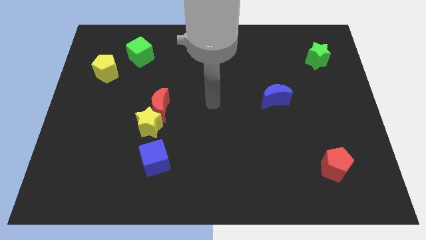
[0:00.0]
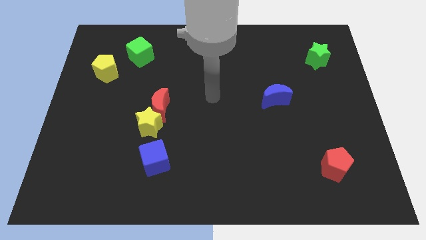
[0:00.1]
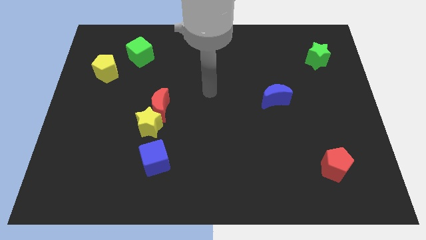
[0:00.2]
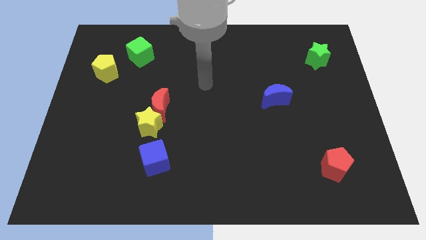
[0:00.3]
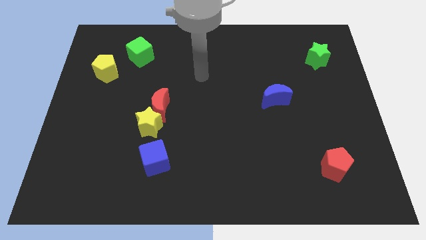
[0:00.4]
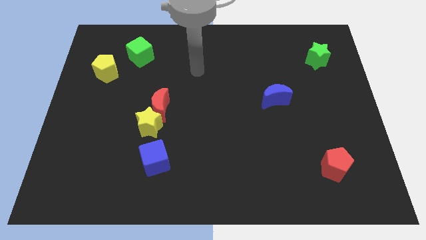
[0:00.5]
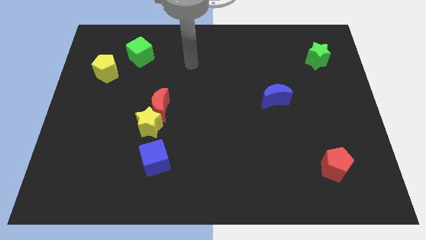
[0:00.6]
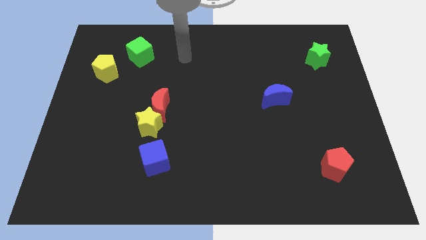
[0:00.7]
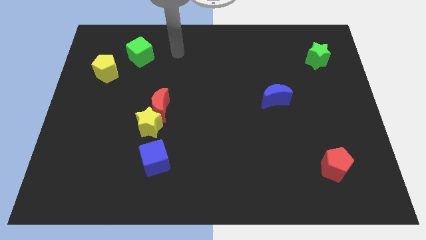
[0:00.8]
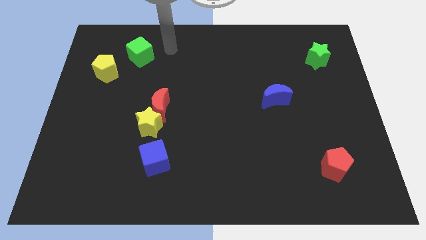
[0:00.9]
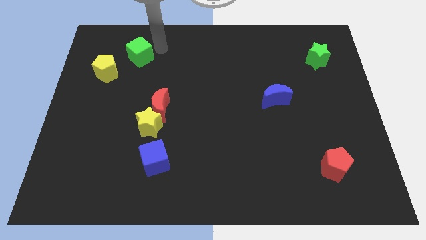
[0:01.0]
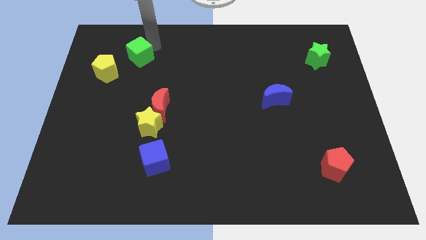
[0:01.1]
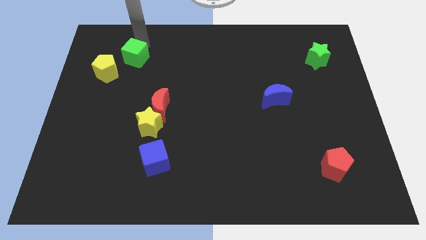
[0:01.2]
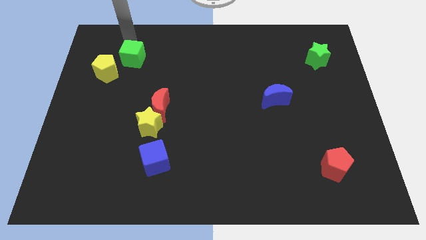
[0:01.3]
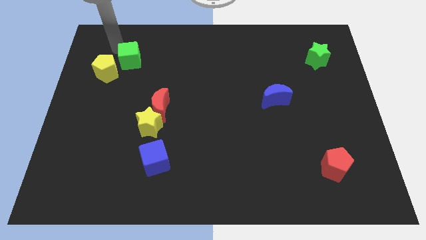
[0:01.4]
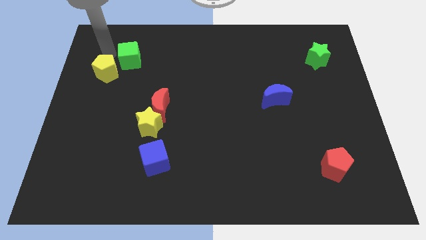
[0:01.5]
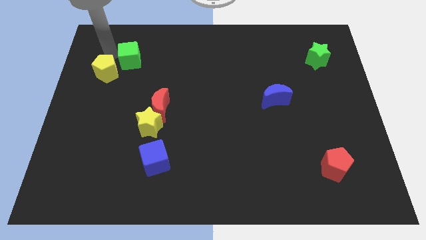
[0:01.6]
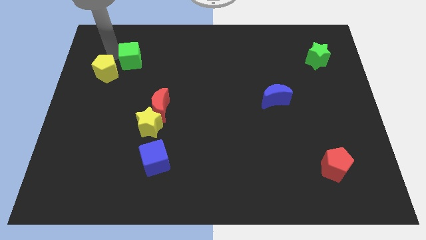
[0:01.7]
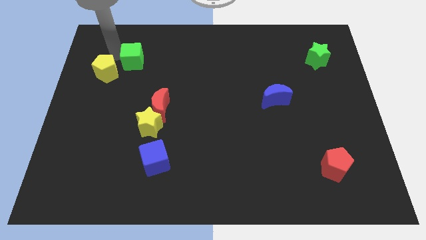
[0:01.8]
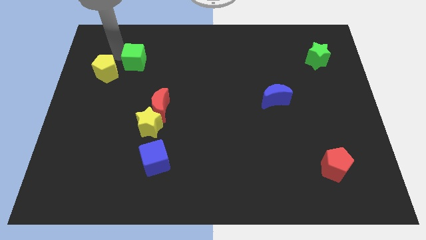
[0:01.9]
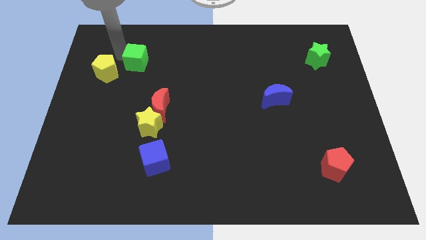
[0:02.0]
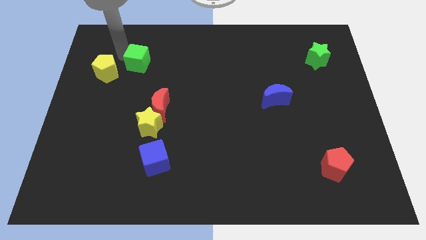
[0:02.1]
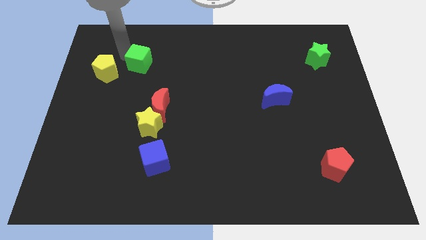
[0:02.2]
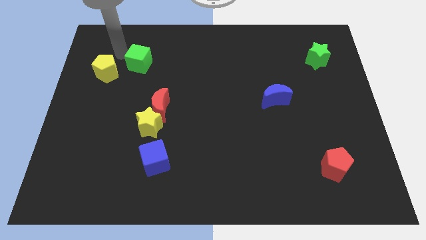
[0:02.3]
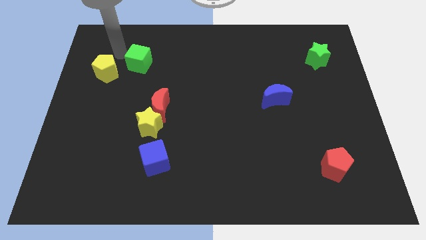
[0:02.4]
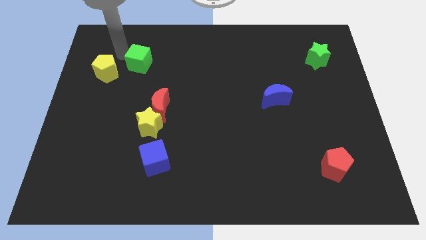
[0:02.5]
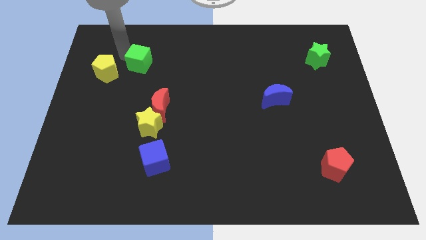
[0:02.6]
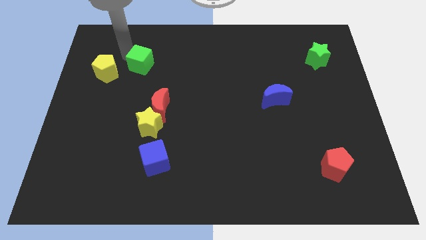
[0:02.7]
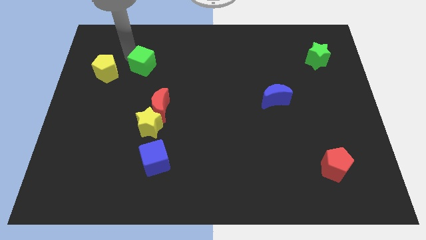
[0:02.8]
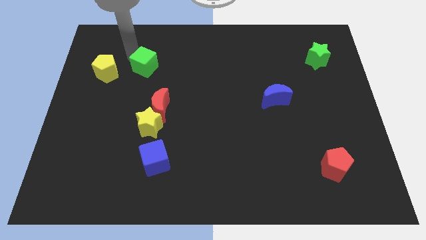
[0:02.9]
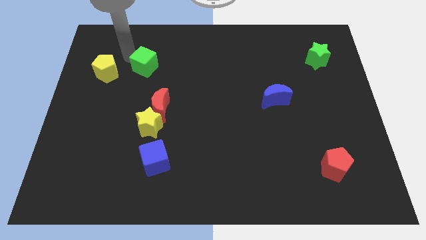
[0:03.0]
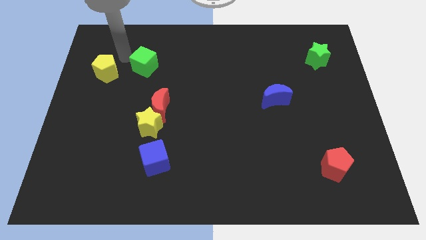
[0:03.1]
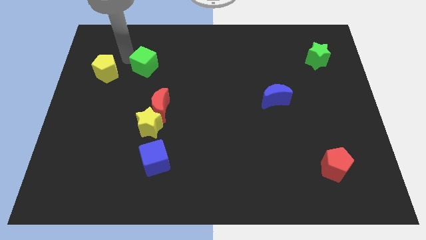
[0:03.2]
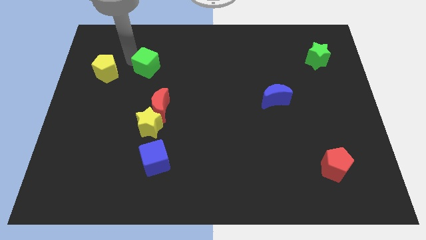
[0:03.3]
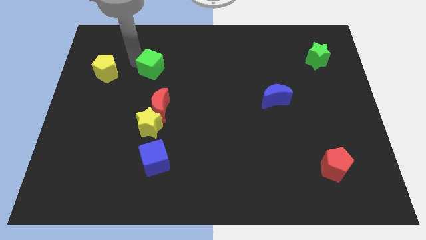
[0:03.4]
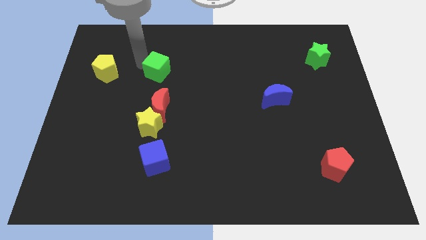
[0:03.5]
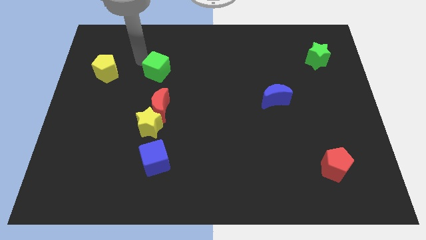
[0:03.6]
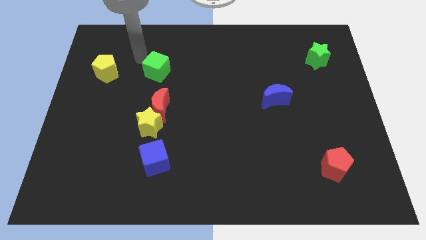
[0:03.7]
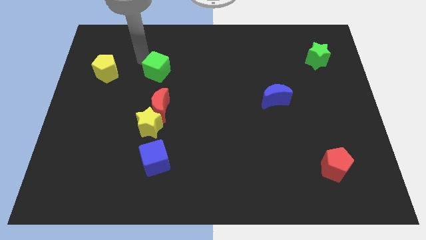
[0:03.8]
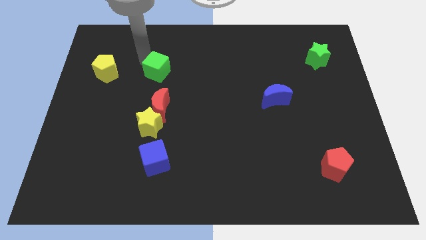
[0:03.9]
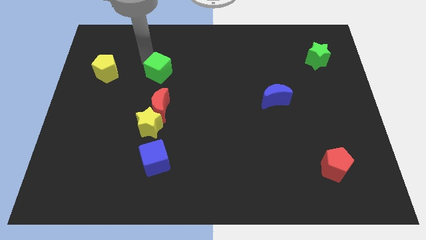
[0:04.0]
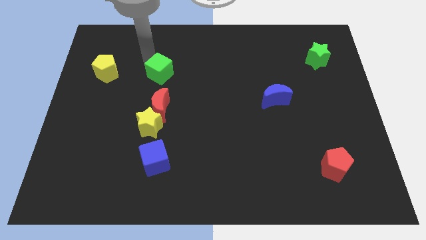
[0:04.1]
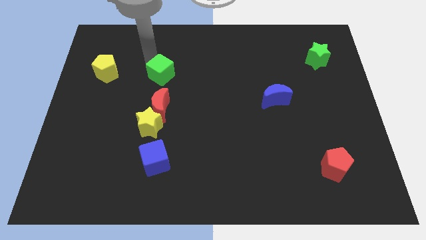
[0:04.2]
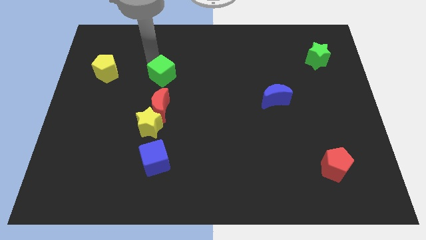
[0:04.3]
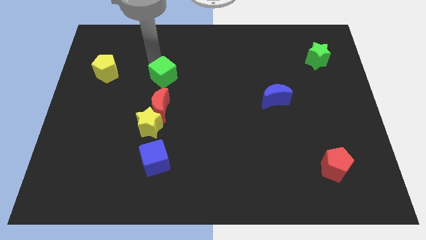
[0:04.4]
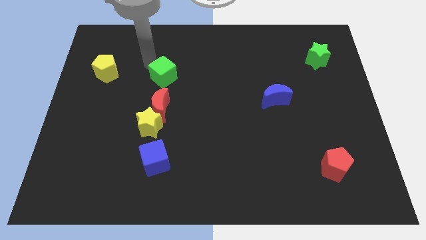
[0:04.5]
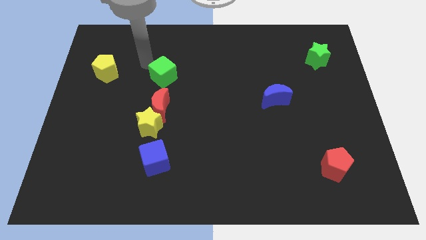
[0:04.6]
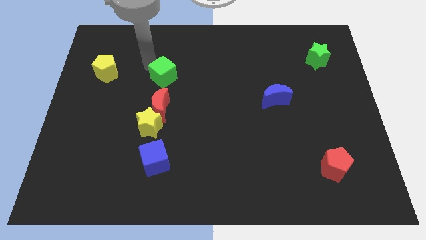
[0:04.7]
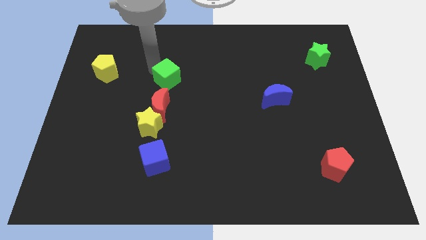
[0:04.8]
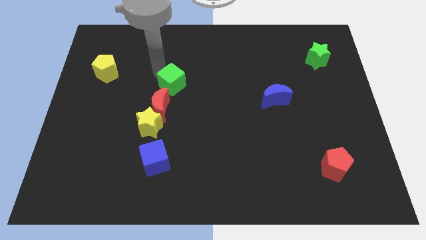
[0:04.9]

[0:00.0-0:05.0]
move the green cube to the center of the board

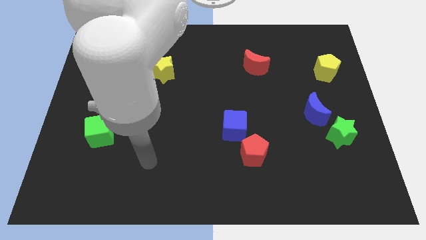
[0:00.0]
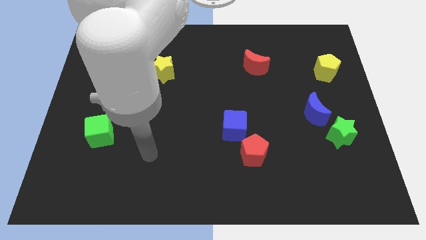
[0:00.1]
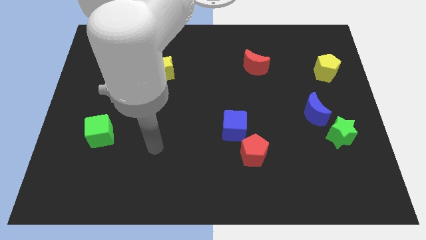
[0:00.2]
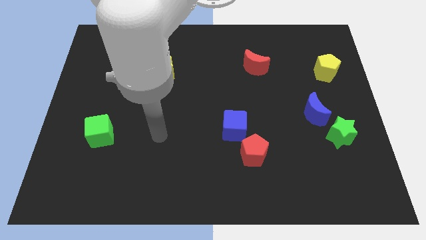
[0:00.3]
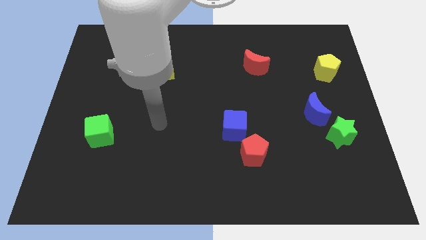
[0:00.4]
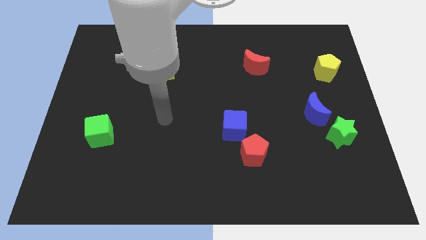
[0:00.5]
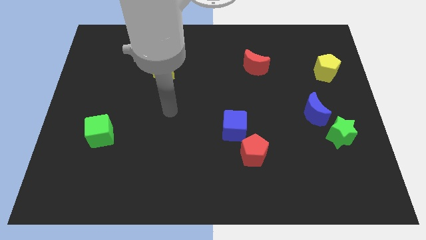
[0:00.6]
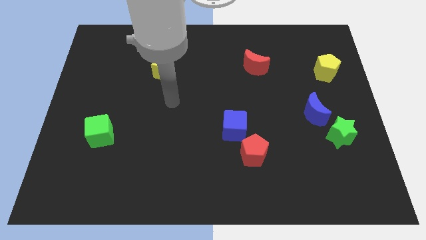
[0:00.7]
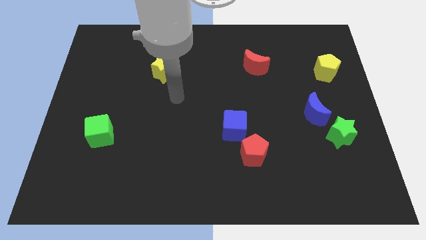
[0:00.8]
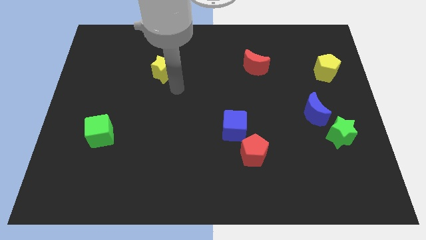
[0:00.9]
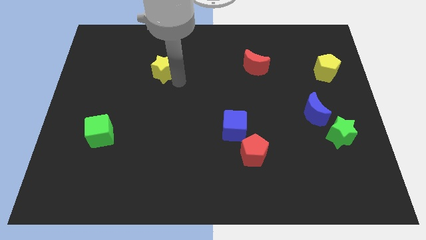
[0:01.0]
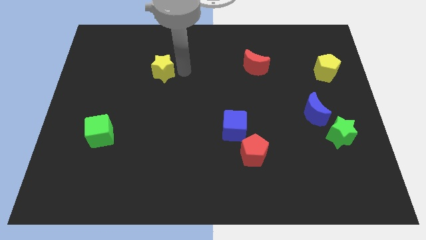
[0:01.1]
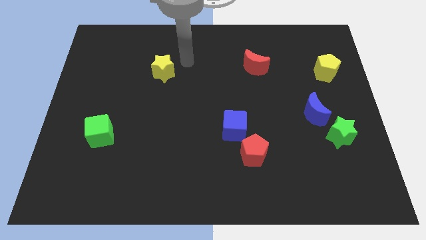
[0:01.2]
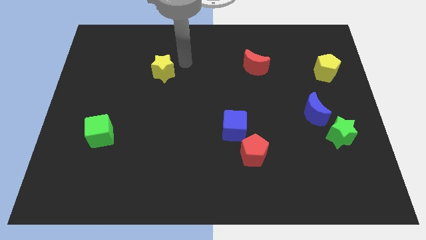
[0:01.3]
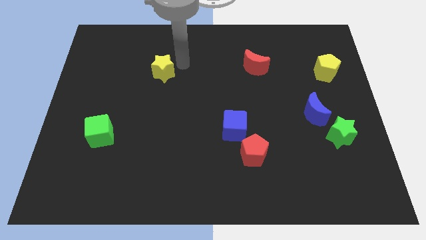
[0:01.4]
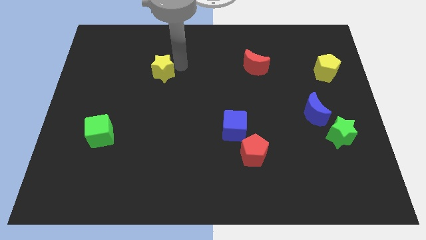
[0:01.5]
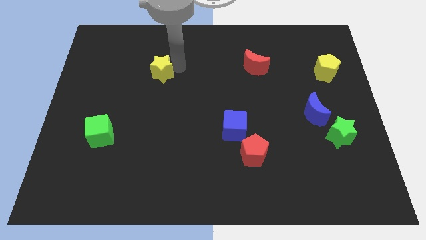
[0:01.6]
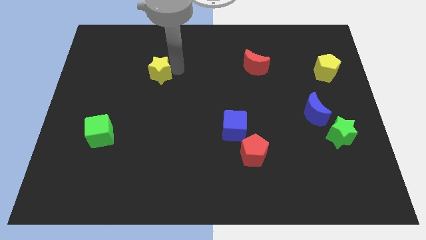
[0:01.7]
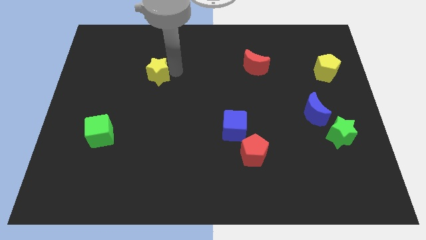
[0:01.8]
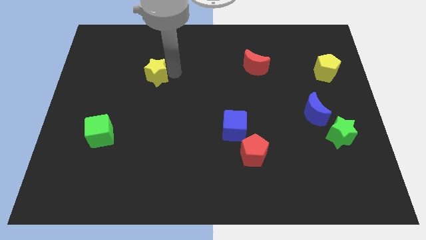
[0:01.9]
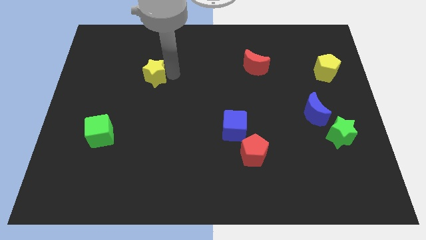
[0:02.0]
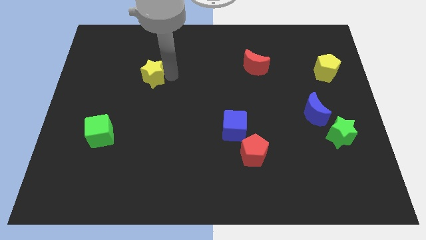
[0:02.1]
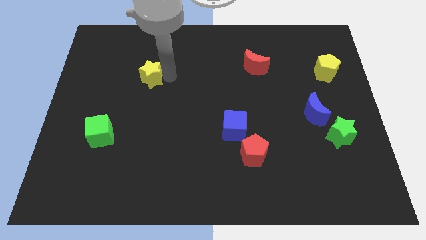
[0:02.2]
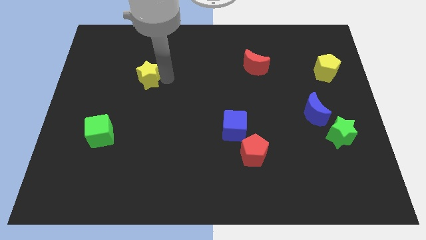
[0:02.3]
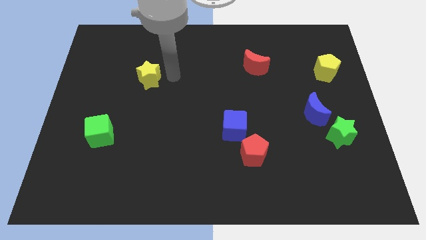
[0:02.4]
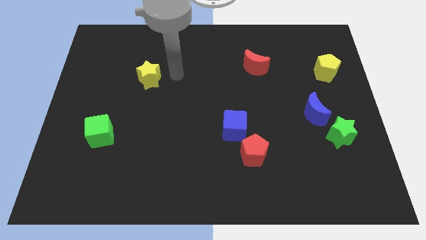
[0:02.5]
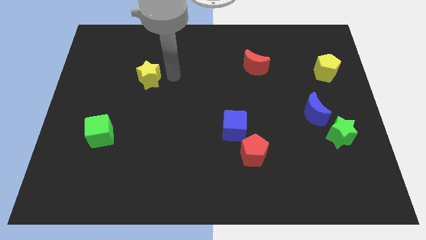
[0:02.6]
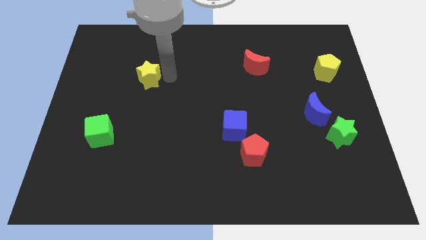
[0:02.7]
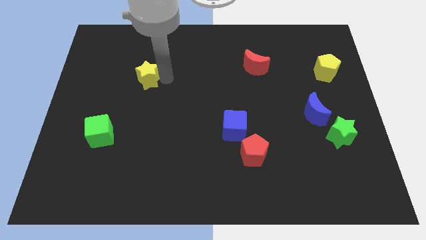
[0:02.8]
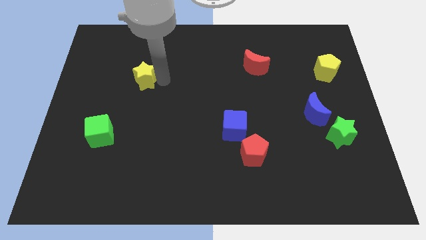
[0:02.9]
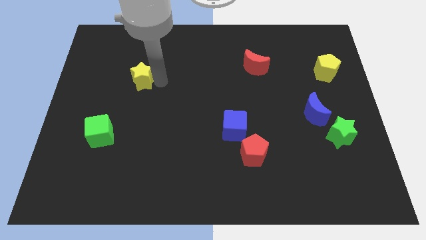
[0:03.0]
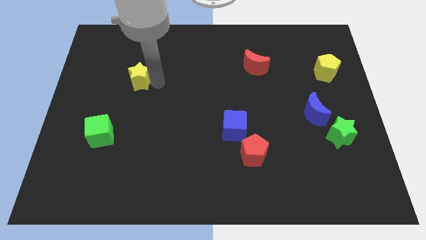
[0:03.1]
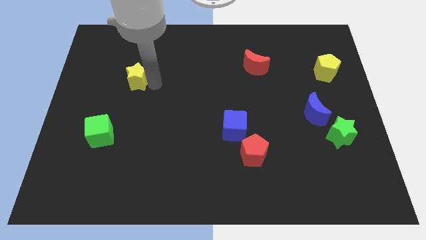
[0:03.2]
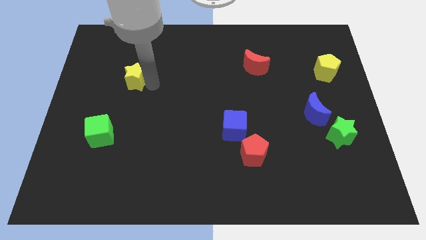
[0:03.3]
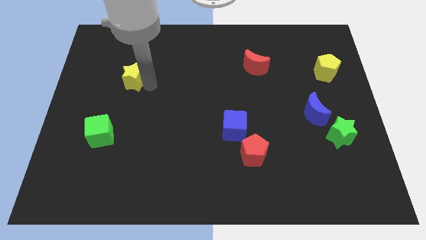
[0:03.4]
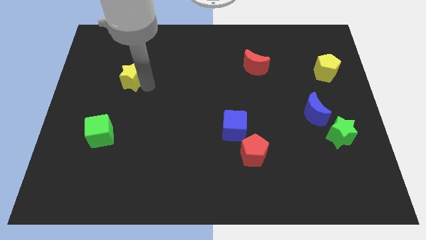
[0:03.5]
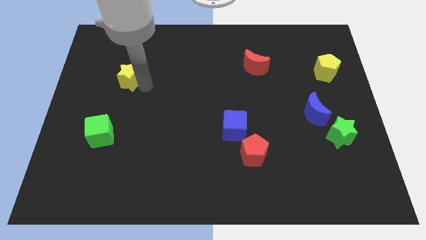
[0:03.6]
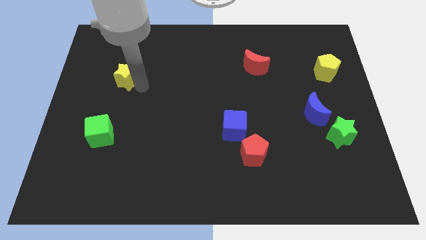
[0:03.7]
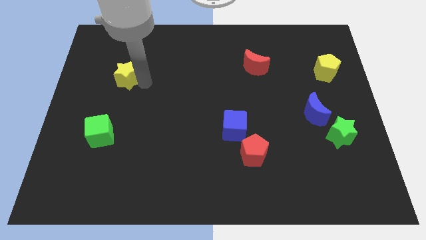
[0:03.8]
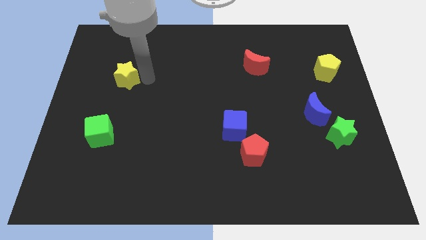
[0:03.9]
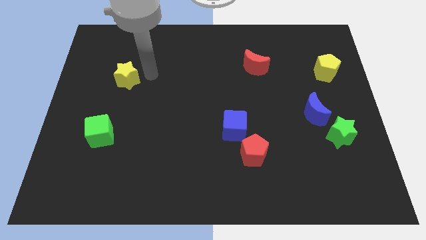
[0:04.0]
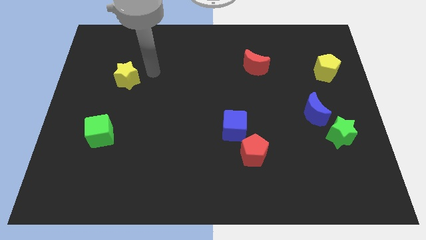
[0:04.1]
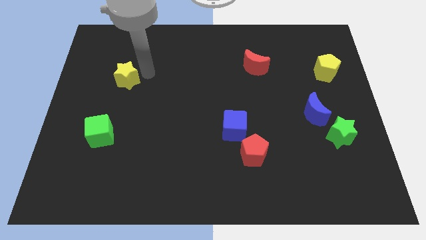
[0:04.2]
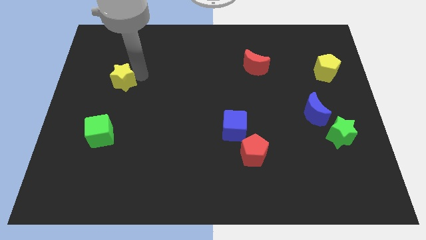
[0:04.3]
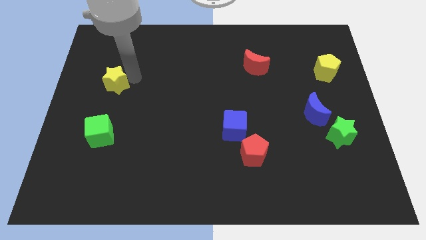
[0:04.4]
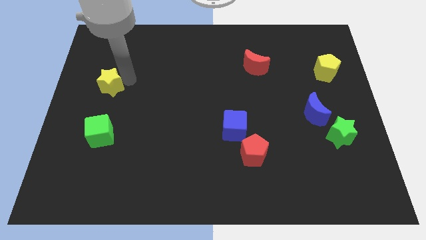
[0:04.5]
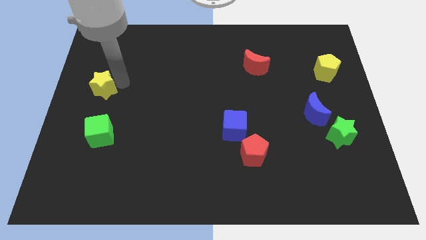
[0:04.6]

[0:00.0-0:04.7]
push the yellow star to the center left
